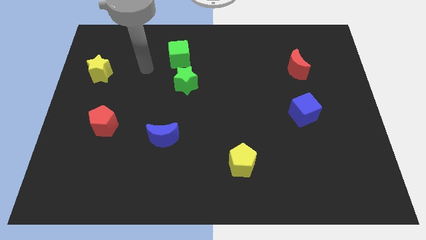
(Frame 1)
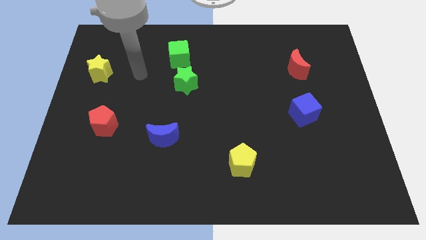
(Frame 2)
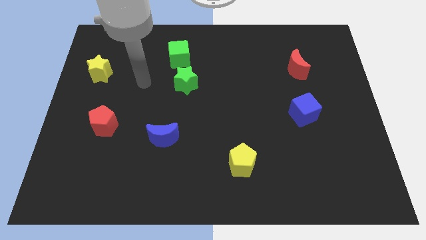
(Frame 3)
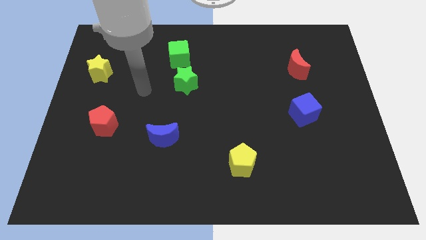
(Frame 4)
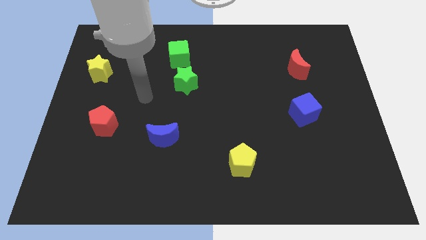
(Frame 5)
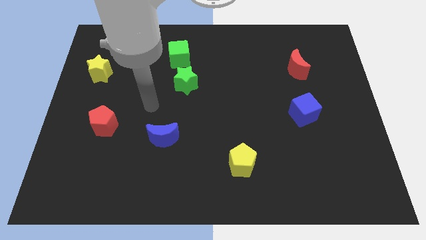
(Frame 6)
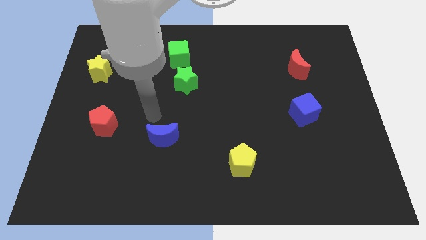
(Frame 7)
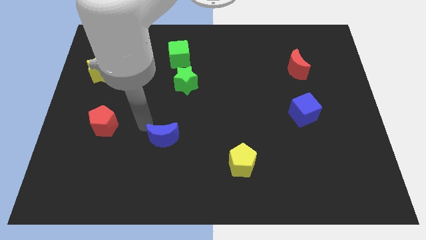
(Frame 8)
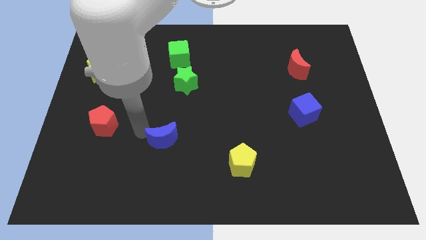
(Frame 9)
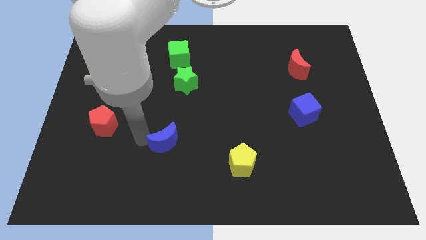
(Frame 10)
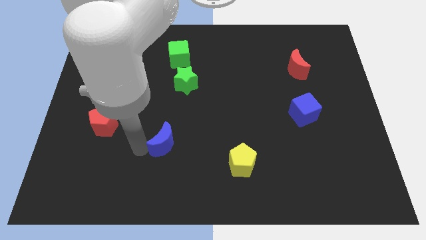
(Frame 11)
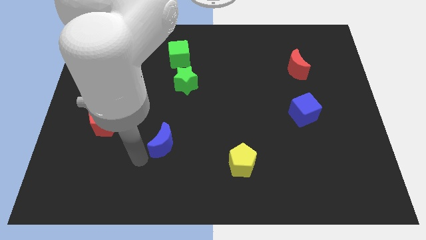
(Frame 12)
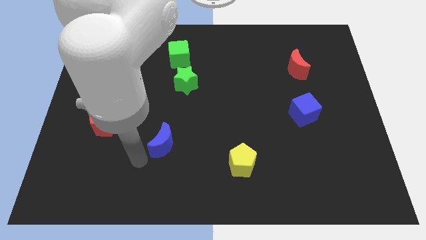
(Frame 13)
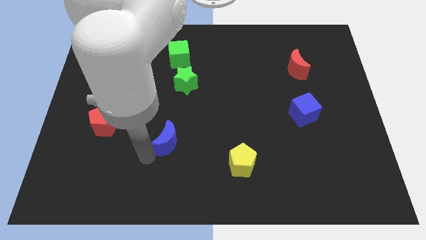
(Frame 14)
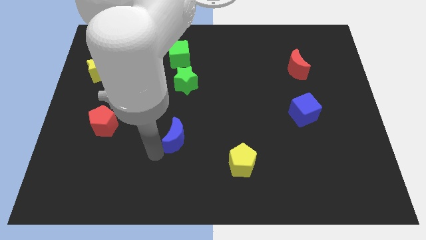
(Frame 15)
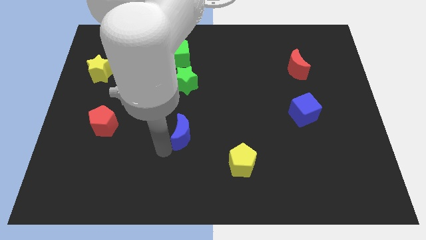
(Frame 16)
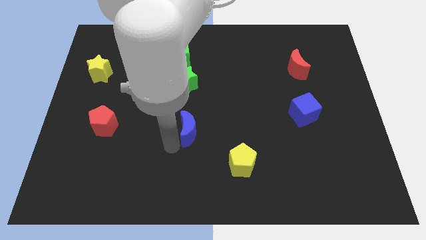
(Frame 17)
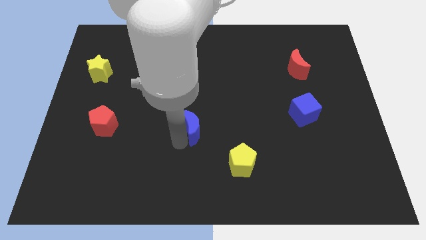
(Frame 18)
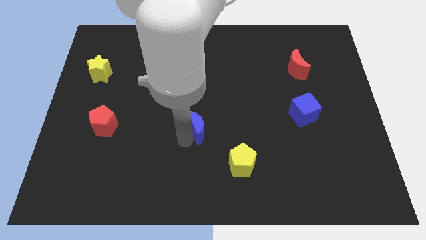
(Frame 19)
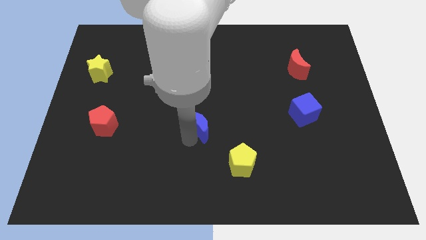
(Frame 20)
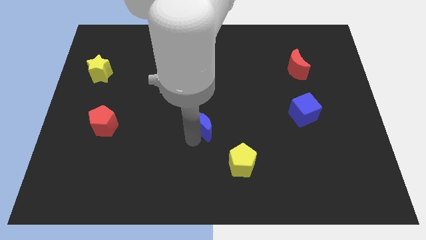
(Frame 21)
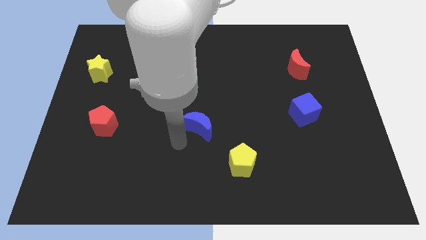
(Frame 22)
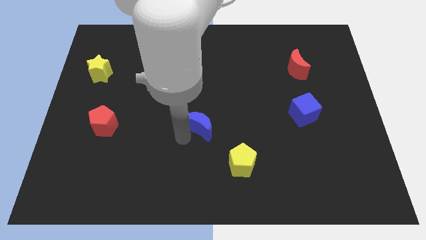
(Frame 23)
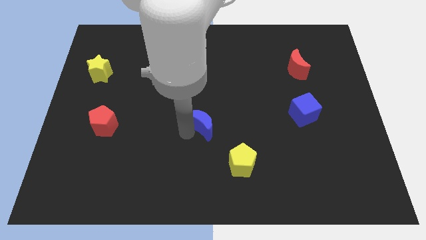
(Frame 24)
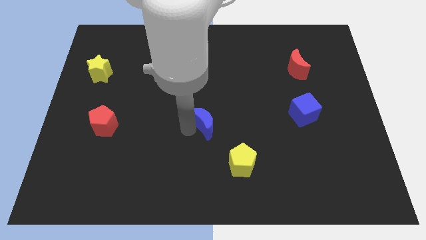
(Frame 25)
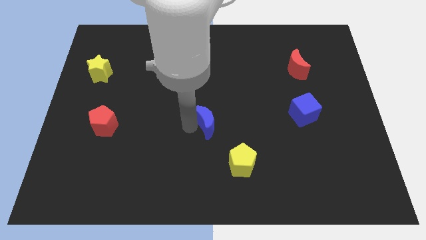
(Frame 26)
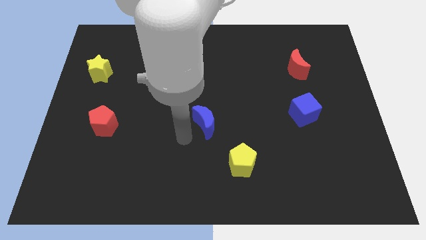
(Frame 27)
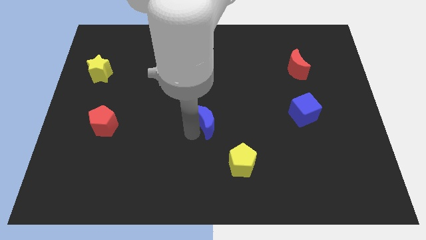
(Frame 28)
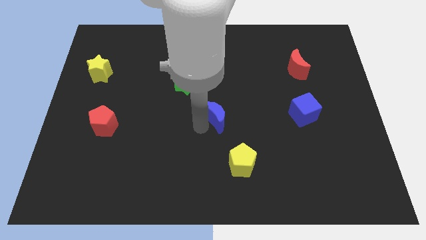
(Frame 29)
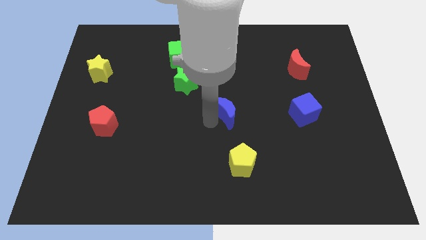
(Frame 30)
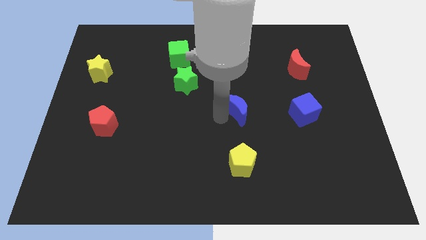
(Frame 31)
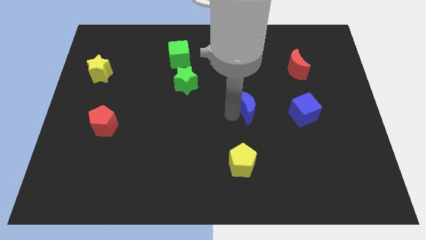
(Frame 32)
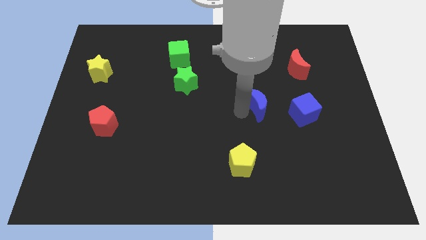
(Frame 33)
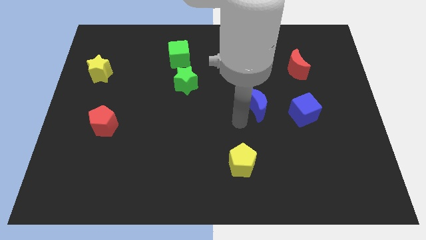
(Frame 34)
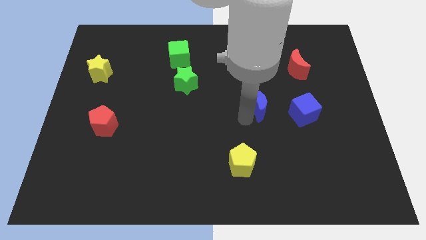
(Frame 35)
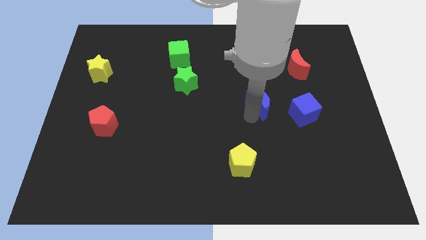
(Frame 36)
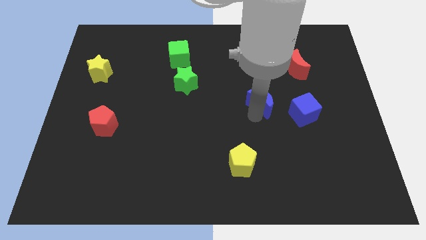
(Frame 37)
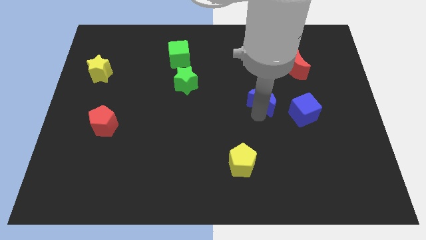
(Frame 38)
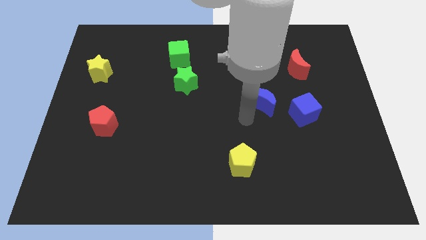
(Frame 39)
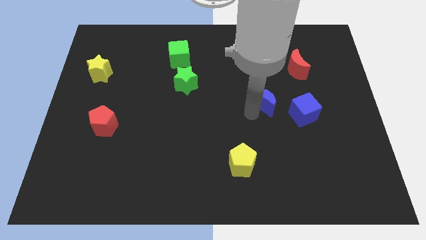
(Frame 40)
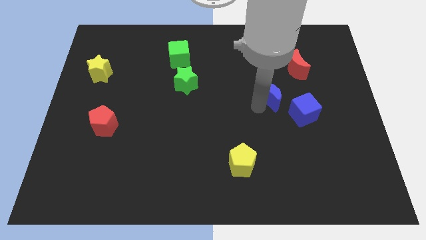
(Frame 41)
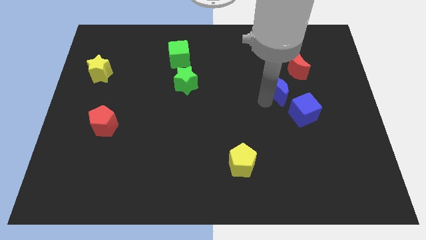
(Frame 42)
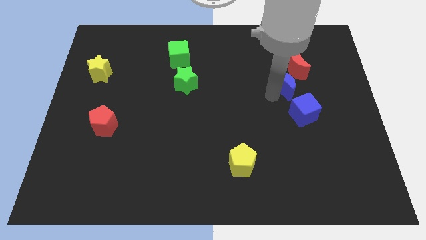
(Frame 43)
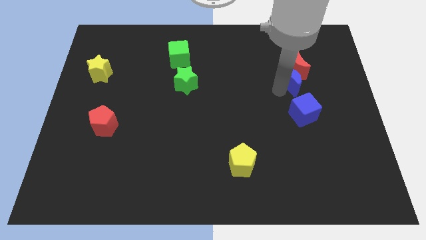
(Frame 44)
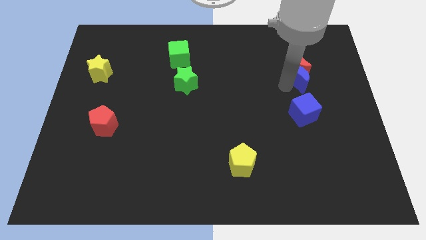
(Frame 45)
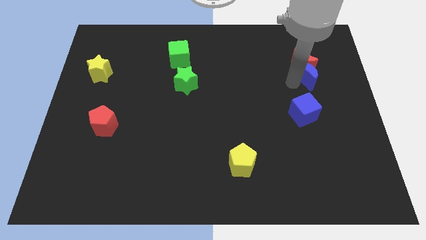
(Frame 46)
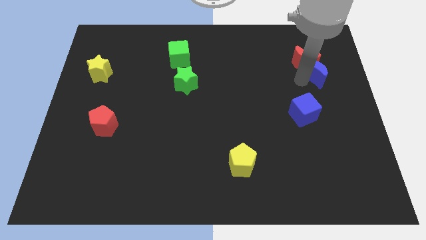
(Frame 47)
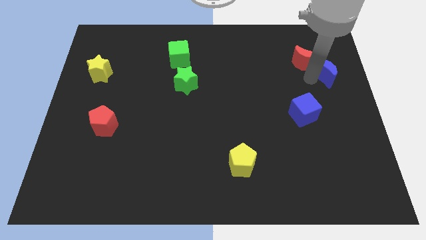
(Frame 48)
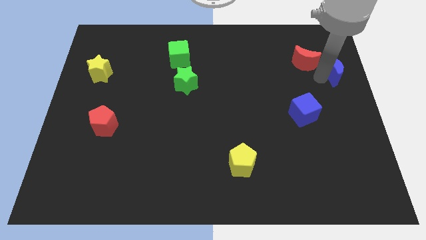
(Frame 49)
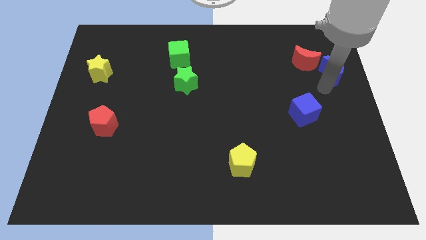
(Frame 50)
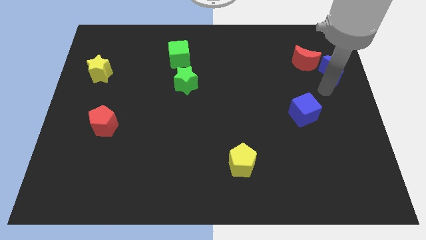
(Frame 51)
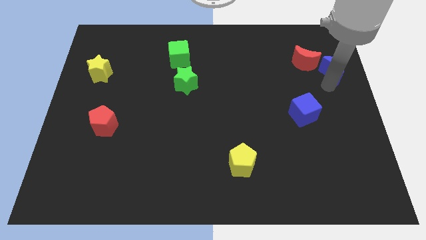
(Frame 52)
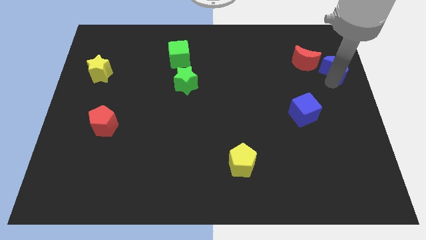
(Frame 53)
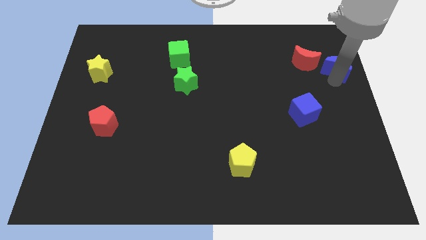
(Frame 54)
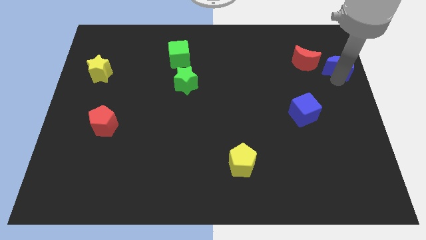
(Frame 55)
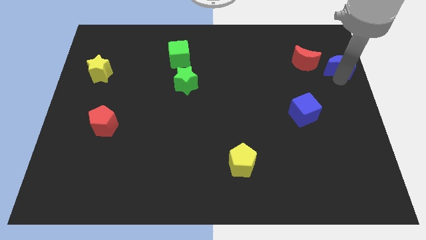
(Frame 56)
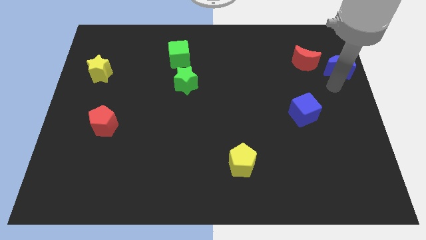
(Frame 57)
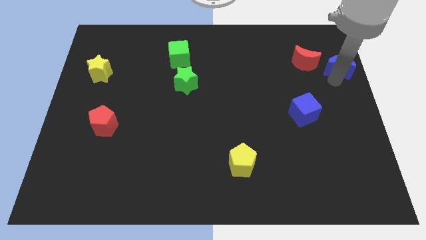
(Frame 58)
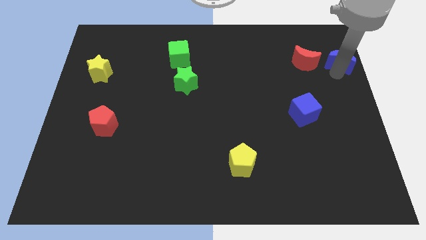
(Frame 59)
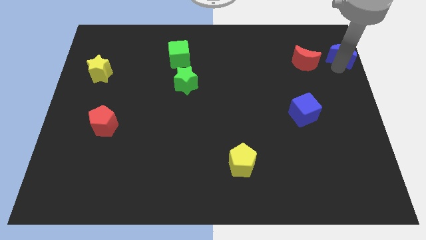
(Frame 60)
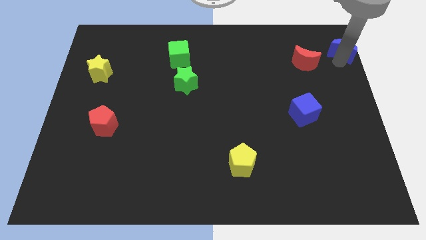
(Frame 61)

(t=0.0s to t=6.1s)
push the blue moon to the top right corner
